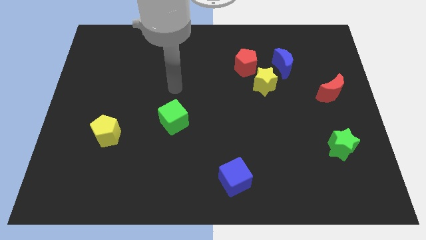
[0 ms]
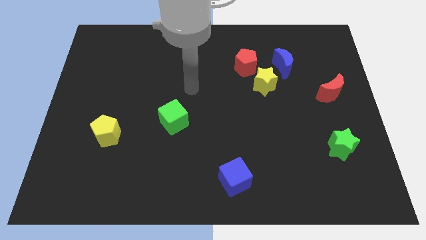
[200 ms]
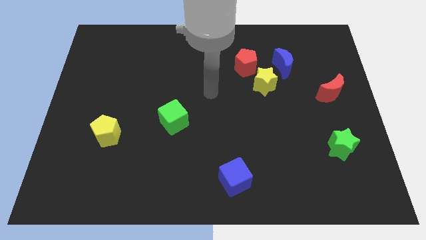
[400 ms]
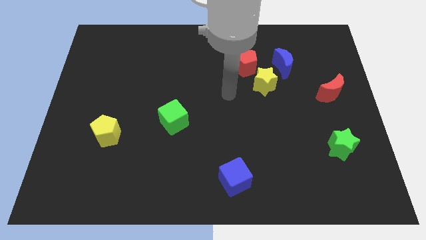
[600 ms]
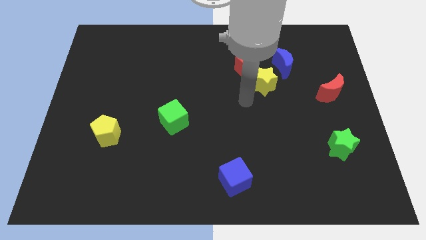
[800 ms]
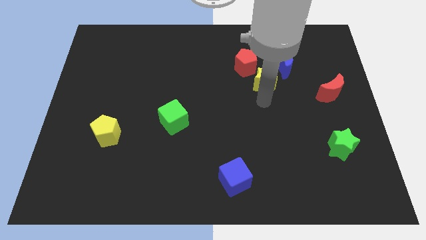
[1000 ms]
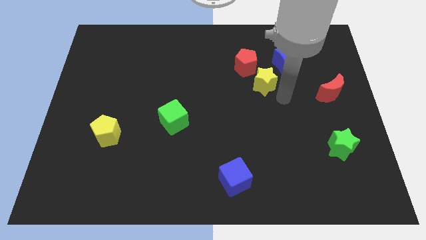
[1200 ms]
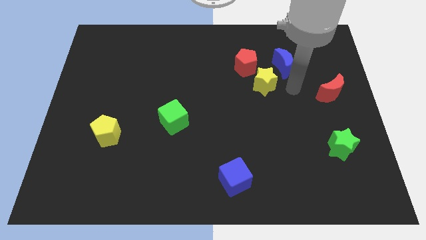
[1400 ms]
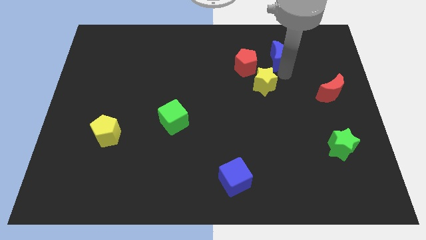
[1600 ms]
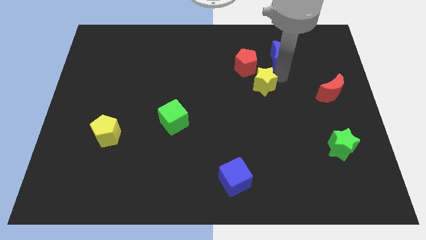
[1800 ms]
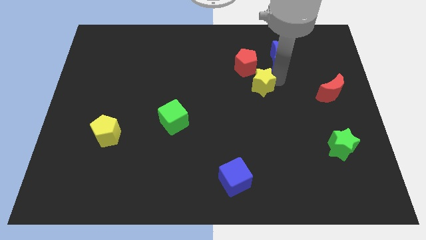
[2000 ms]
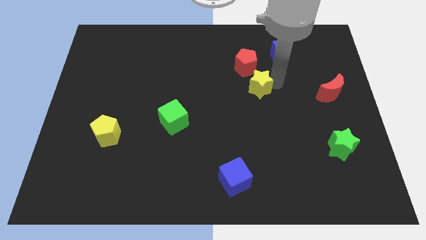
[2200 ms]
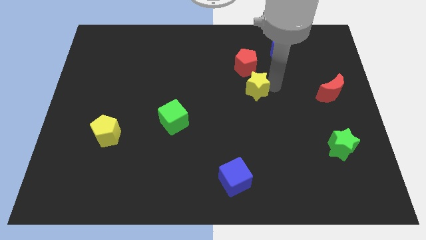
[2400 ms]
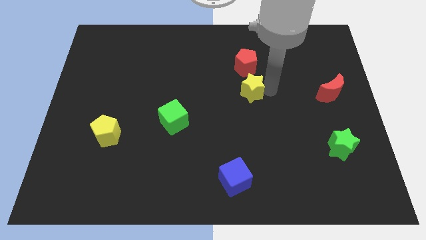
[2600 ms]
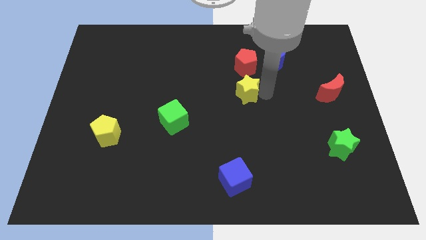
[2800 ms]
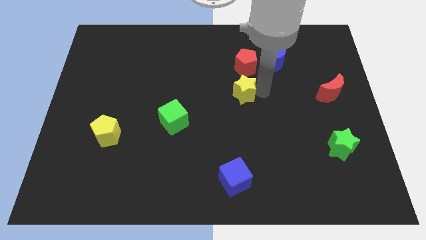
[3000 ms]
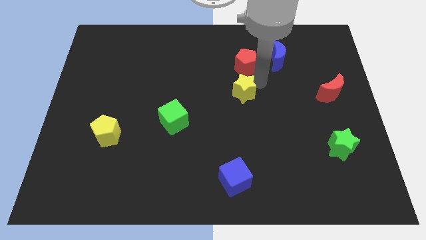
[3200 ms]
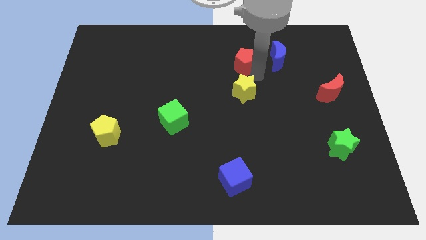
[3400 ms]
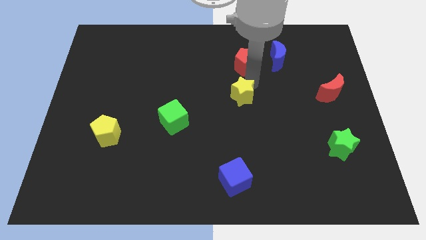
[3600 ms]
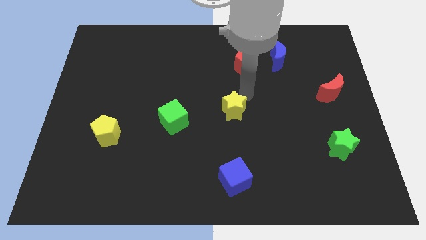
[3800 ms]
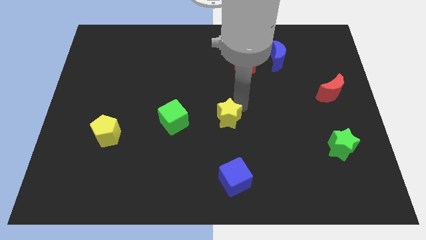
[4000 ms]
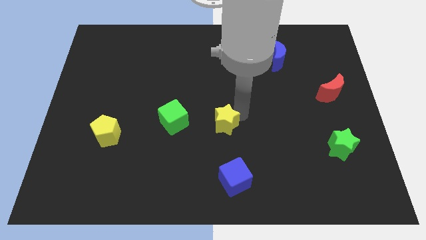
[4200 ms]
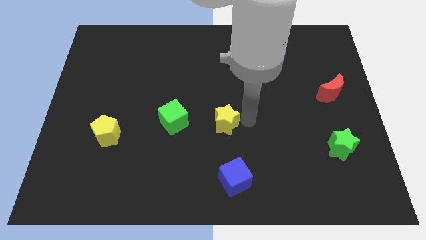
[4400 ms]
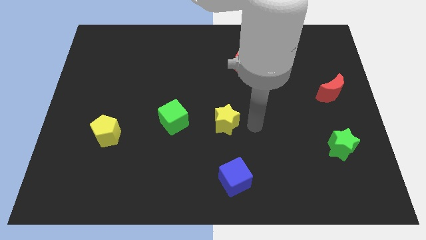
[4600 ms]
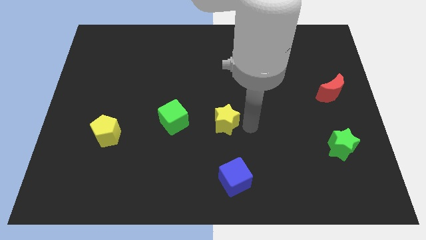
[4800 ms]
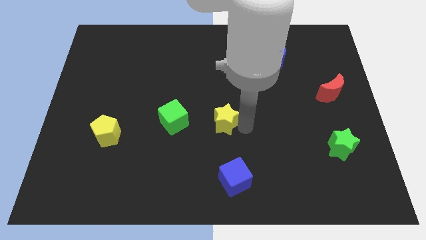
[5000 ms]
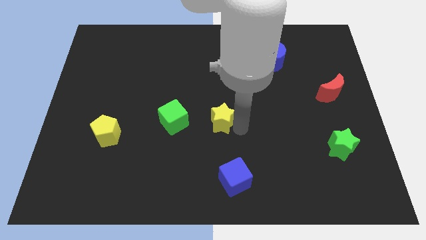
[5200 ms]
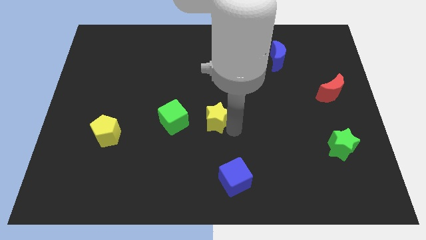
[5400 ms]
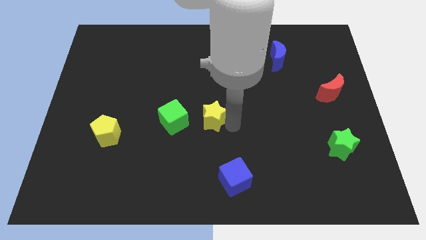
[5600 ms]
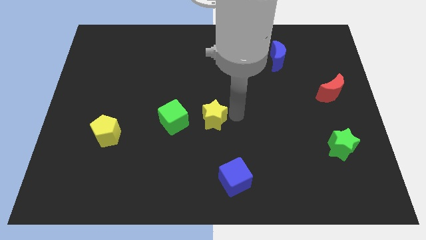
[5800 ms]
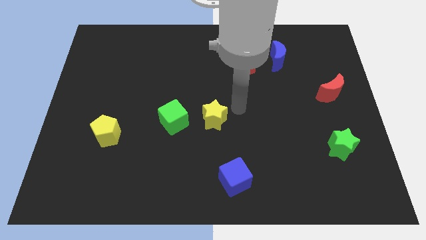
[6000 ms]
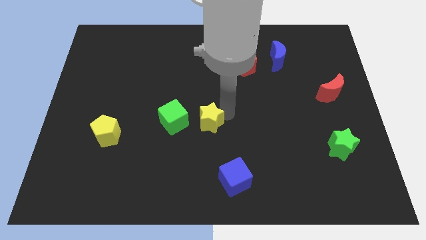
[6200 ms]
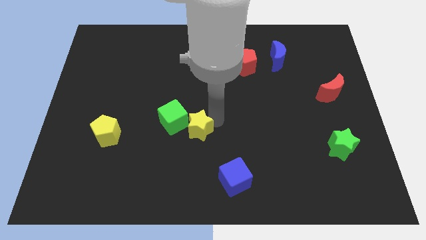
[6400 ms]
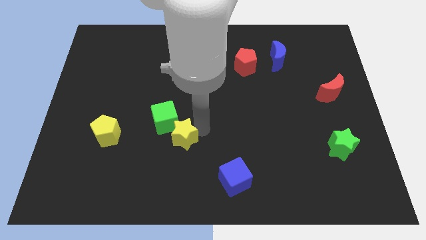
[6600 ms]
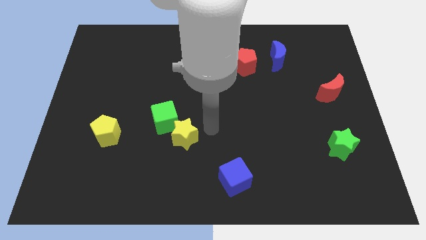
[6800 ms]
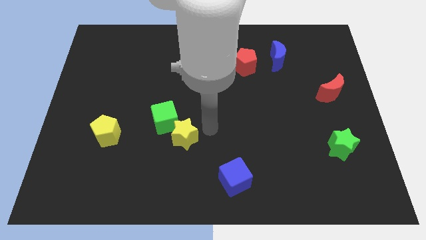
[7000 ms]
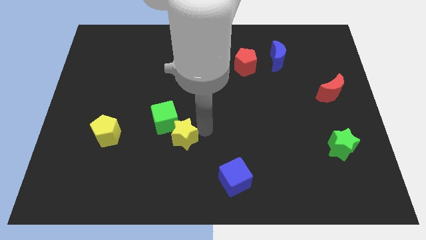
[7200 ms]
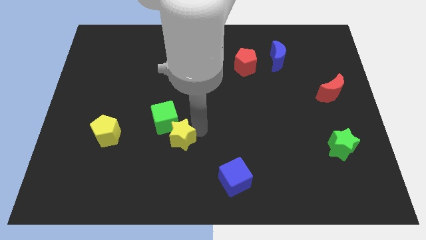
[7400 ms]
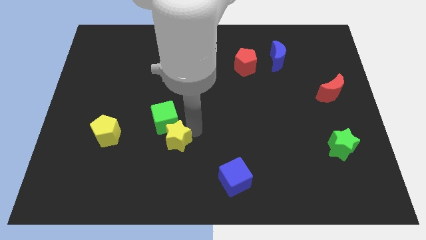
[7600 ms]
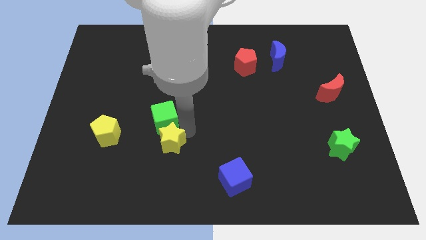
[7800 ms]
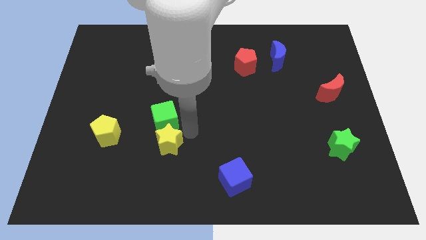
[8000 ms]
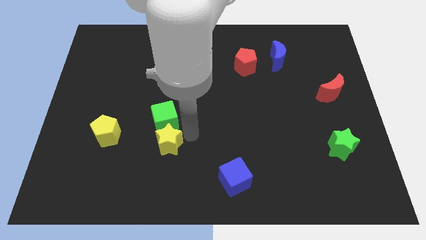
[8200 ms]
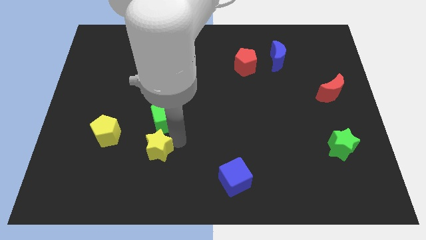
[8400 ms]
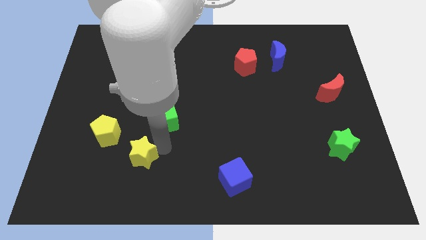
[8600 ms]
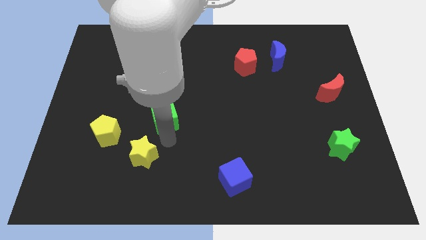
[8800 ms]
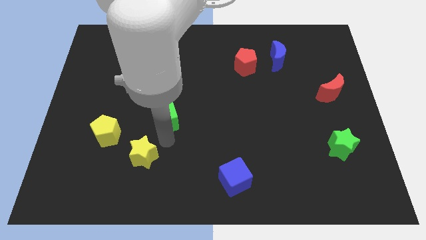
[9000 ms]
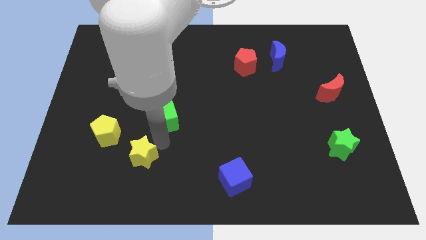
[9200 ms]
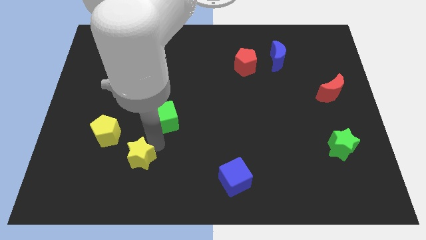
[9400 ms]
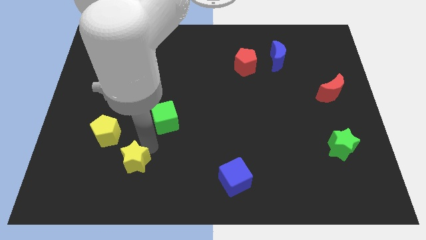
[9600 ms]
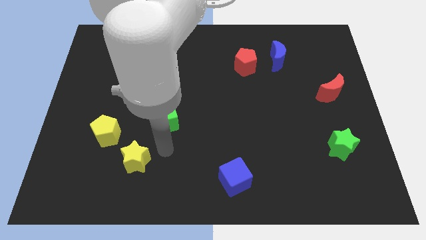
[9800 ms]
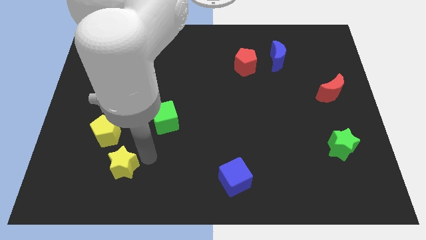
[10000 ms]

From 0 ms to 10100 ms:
push the yellow star to the bottom side of the yellow pentagon

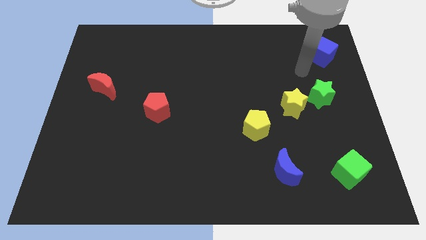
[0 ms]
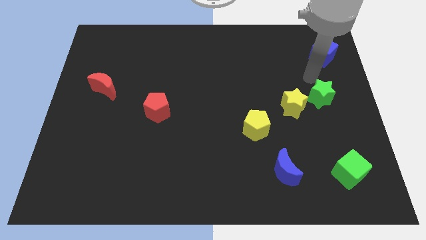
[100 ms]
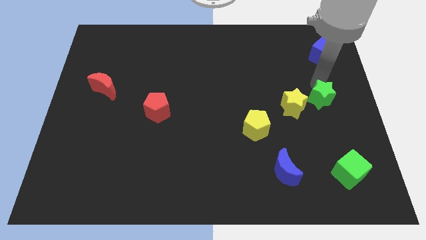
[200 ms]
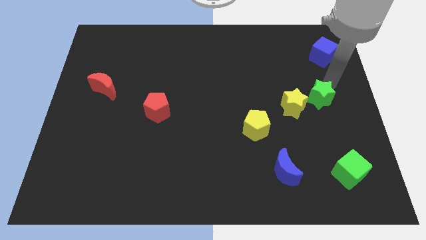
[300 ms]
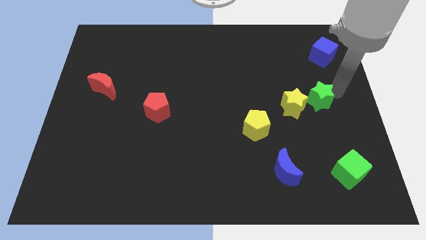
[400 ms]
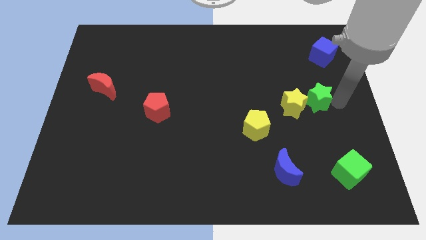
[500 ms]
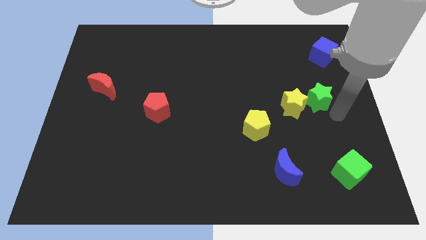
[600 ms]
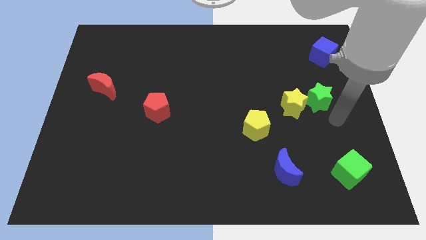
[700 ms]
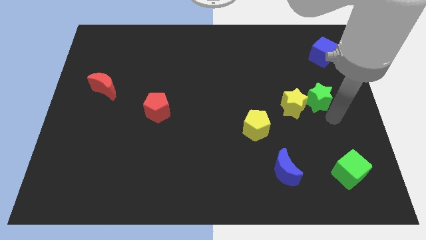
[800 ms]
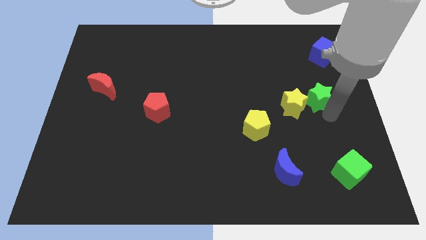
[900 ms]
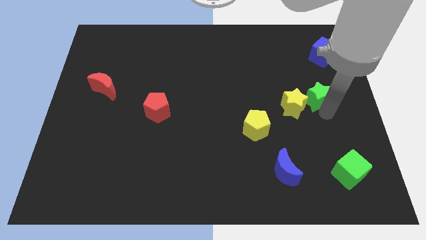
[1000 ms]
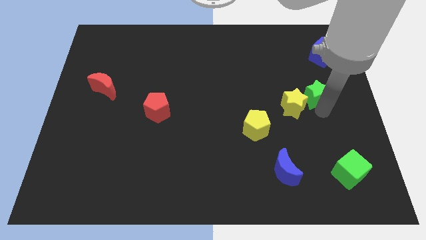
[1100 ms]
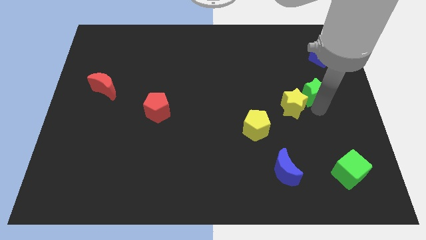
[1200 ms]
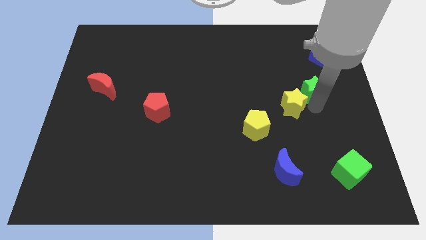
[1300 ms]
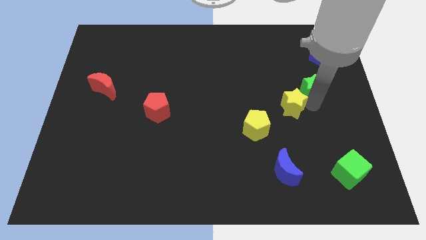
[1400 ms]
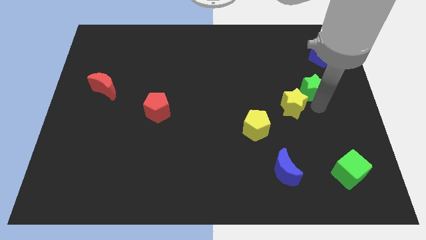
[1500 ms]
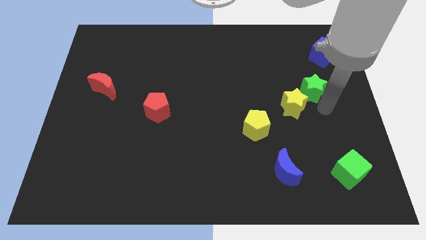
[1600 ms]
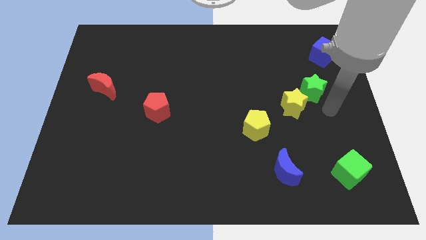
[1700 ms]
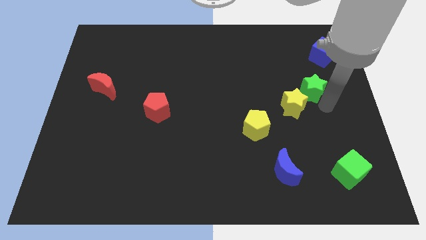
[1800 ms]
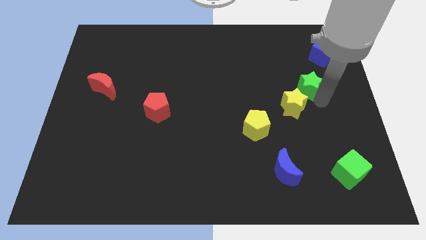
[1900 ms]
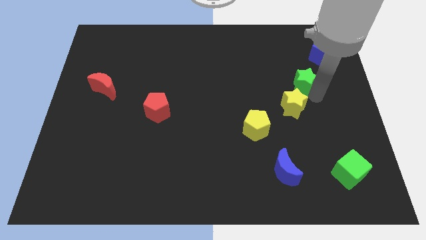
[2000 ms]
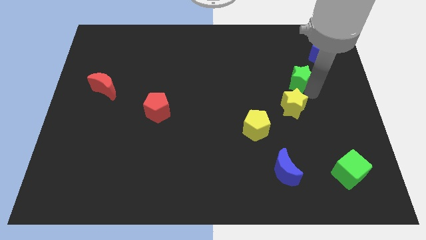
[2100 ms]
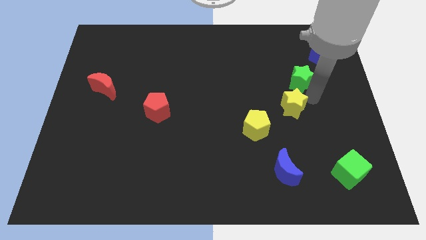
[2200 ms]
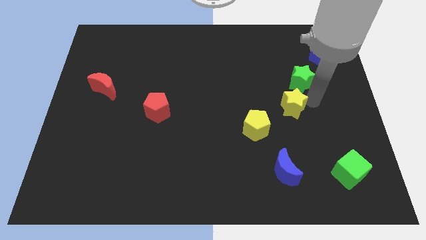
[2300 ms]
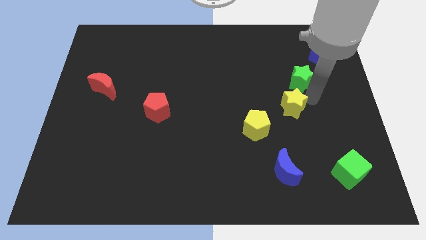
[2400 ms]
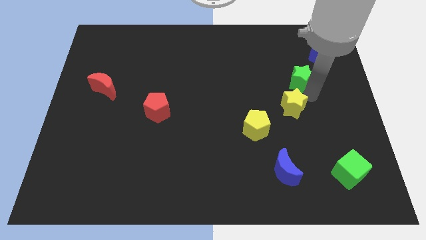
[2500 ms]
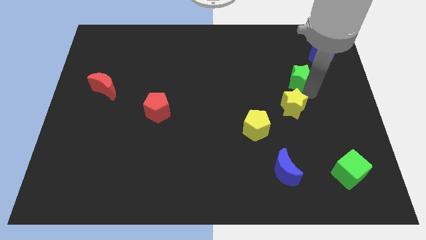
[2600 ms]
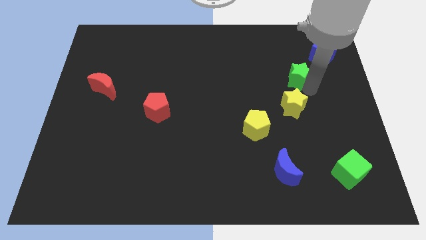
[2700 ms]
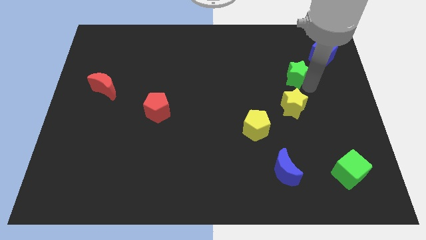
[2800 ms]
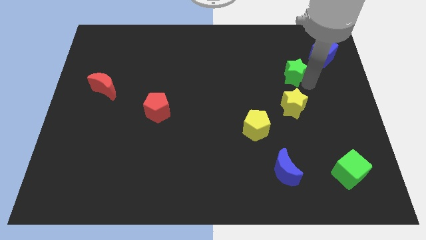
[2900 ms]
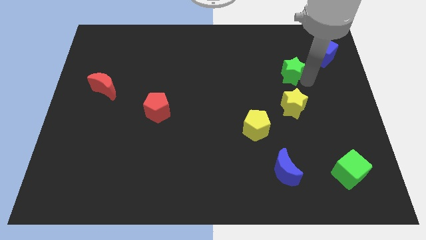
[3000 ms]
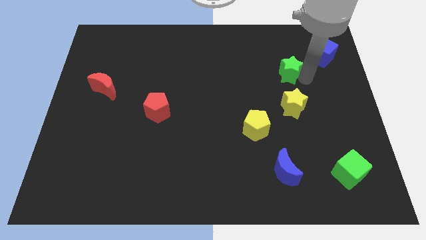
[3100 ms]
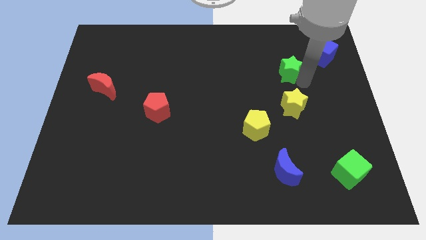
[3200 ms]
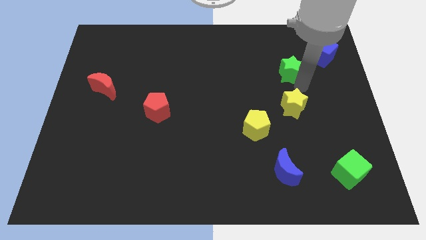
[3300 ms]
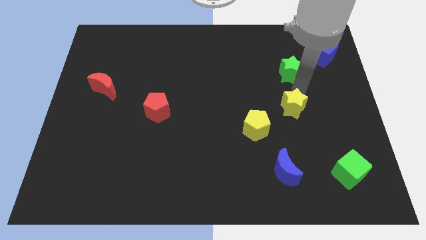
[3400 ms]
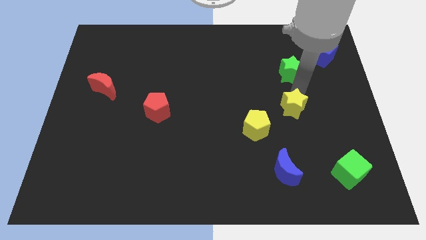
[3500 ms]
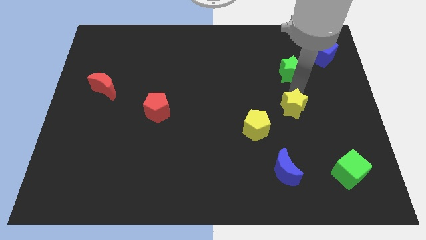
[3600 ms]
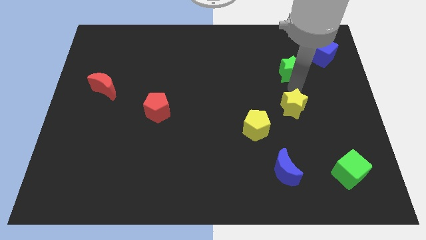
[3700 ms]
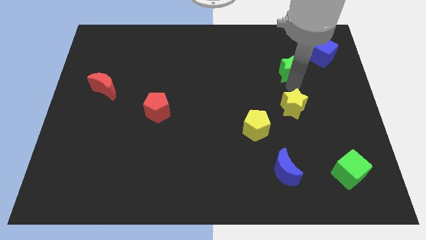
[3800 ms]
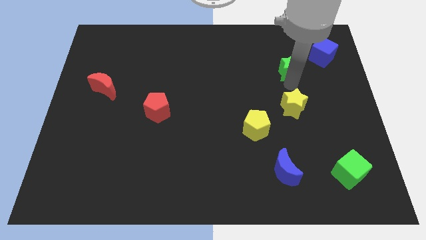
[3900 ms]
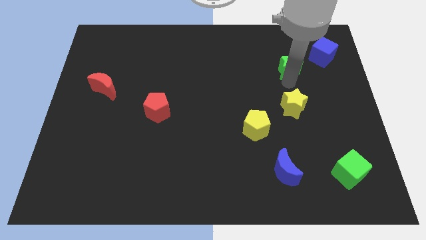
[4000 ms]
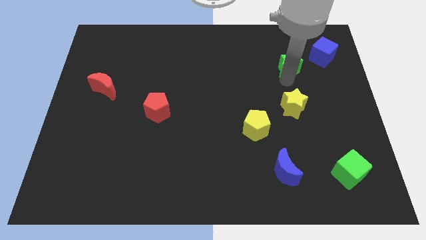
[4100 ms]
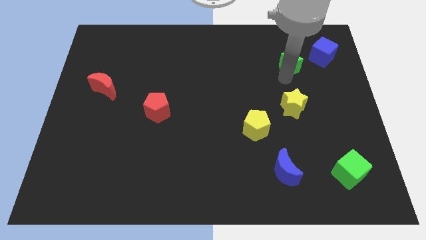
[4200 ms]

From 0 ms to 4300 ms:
slide the green star to the left of the blue cube
